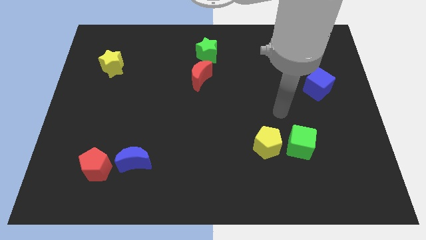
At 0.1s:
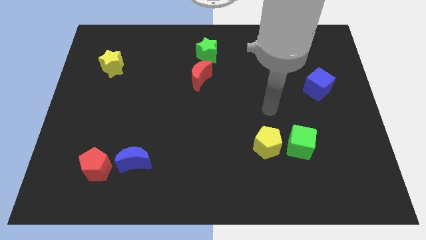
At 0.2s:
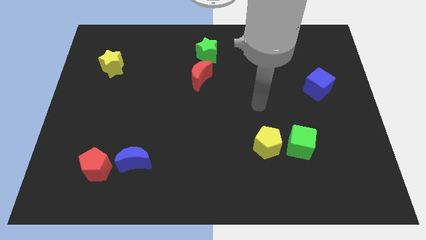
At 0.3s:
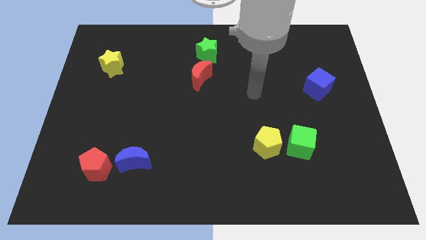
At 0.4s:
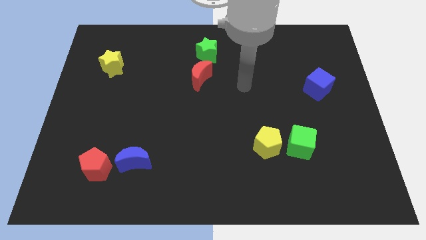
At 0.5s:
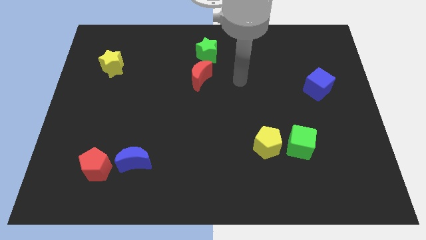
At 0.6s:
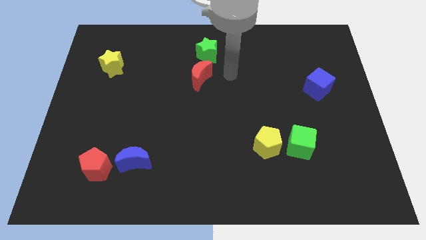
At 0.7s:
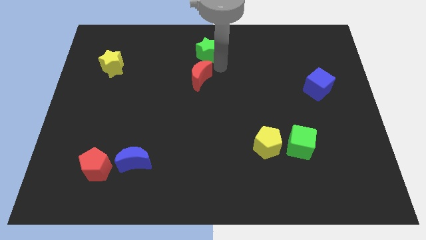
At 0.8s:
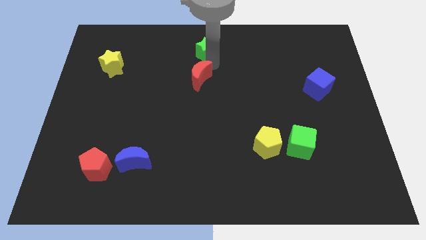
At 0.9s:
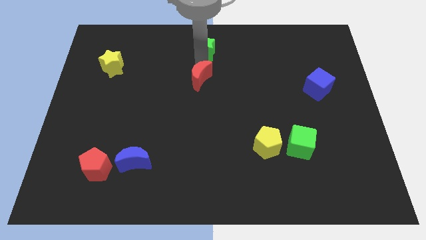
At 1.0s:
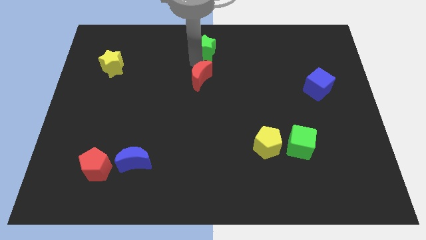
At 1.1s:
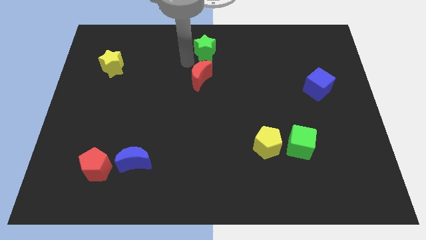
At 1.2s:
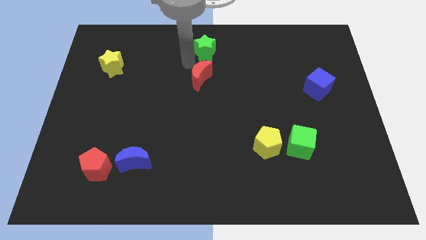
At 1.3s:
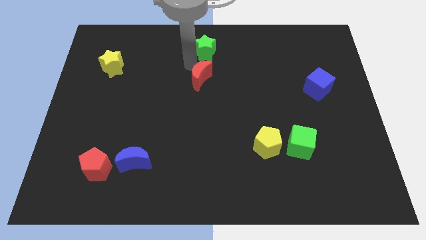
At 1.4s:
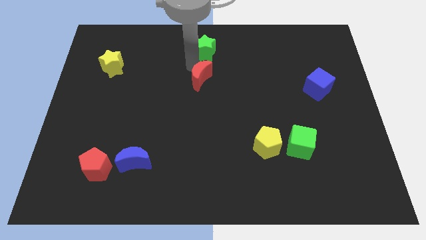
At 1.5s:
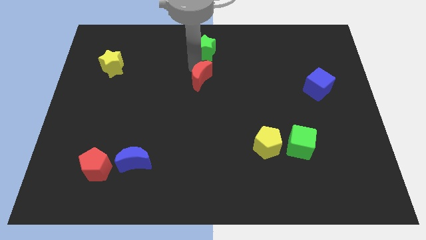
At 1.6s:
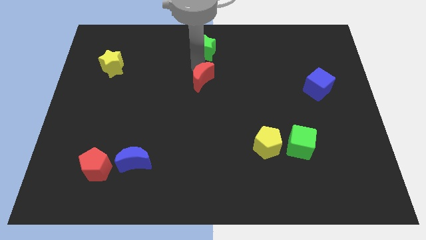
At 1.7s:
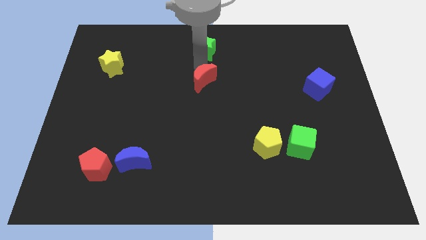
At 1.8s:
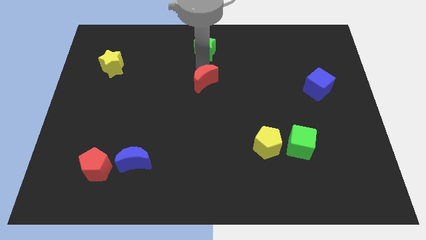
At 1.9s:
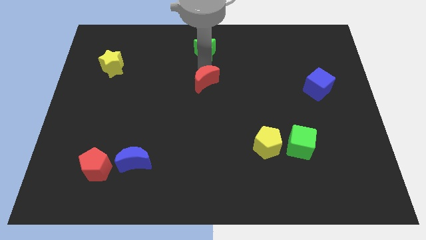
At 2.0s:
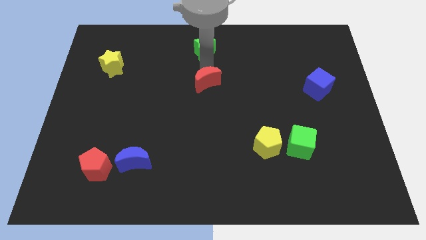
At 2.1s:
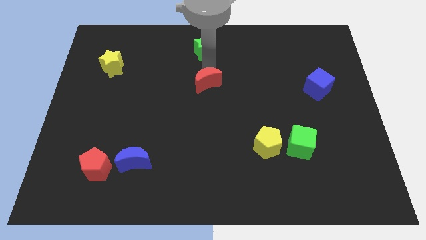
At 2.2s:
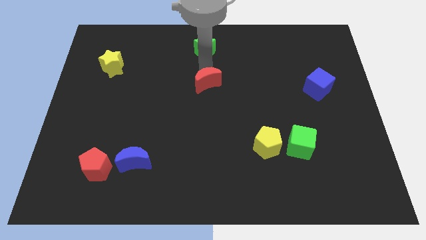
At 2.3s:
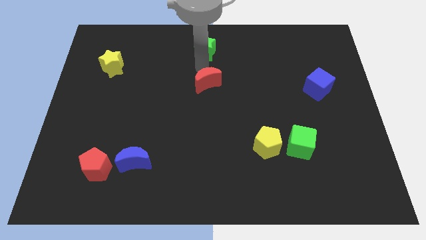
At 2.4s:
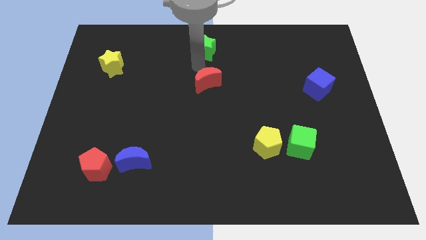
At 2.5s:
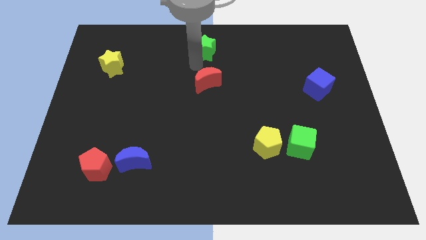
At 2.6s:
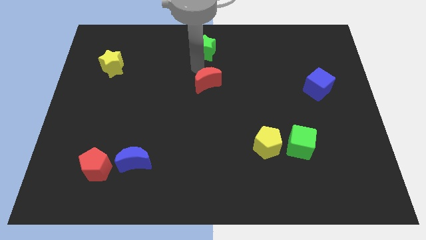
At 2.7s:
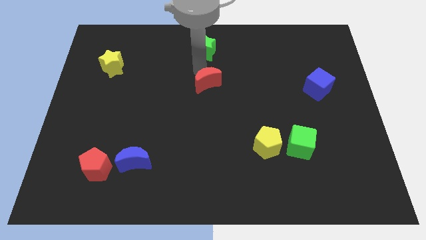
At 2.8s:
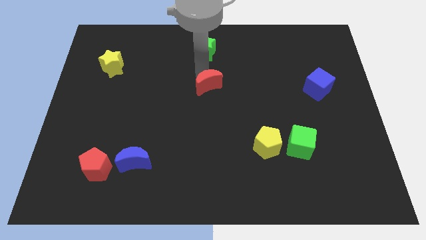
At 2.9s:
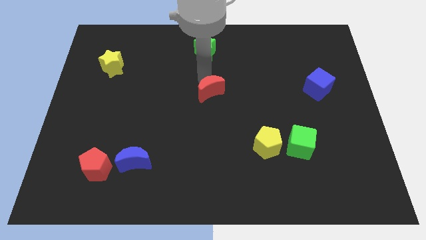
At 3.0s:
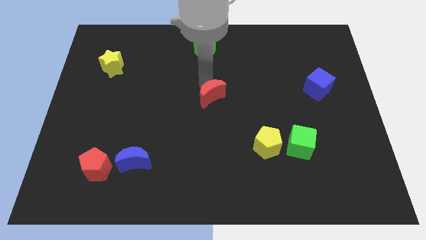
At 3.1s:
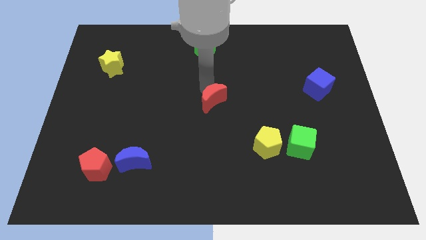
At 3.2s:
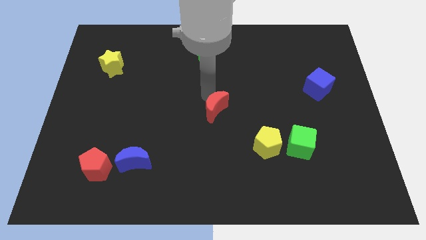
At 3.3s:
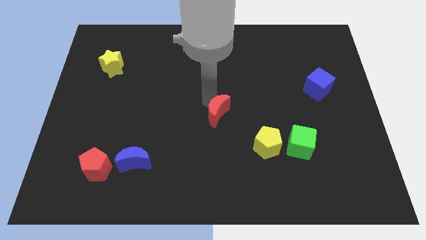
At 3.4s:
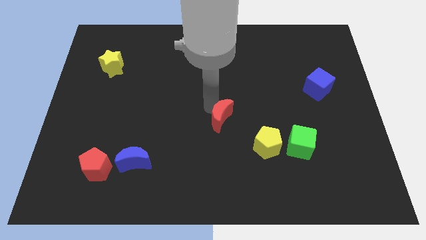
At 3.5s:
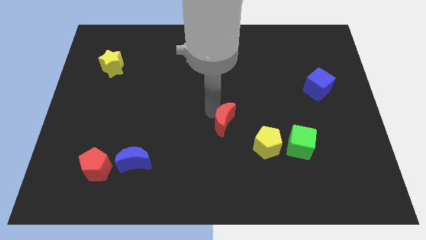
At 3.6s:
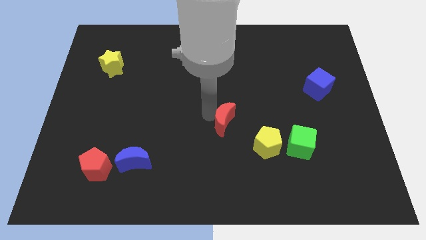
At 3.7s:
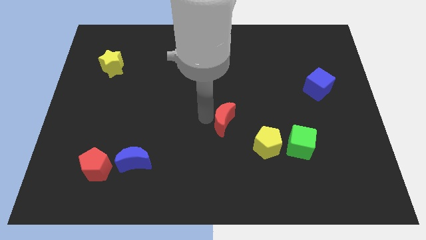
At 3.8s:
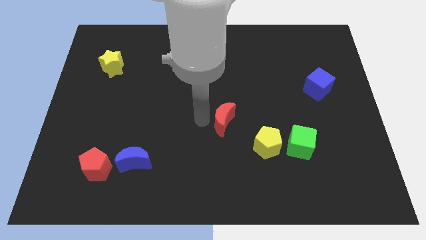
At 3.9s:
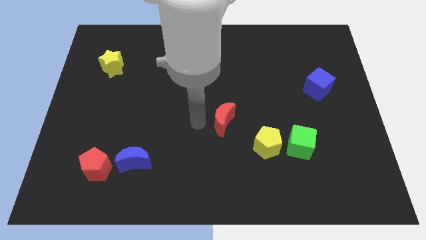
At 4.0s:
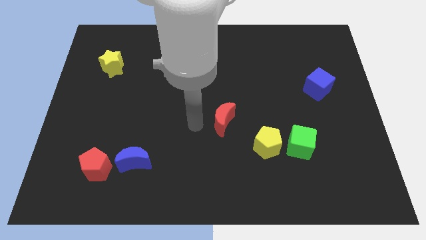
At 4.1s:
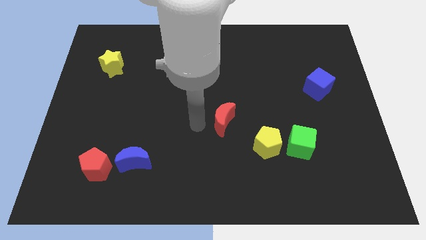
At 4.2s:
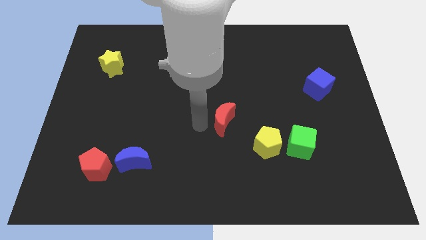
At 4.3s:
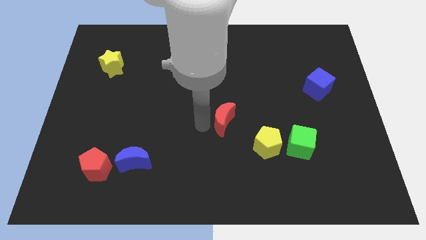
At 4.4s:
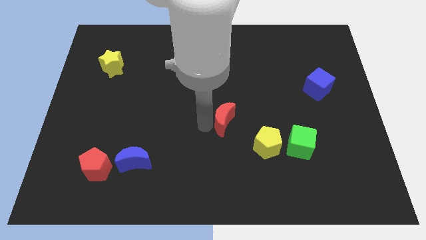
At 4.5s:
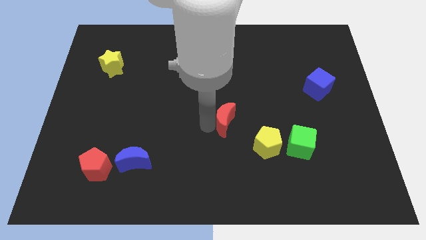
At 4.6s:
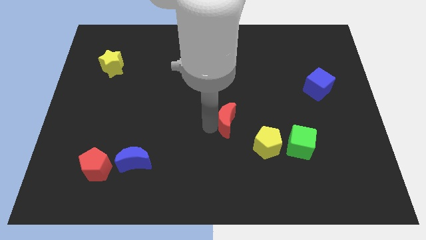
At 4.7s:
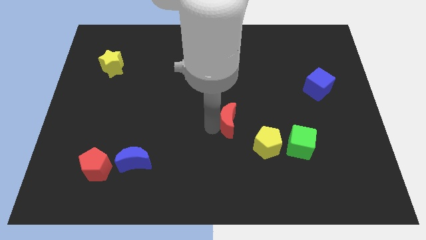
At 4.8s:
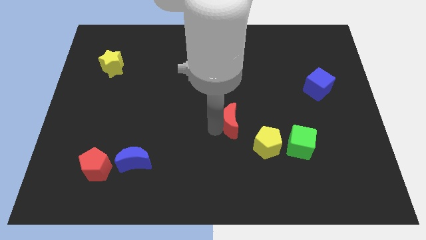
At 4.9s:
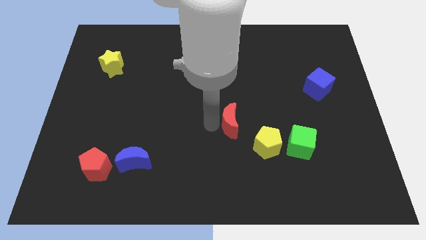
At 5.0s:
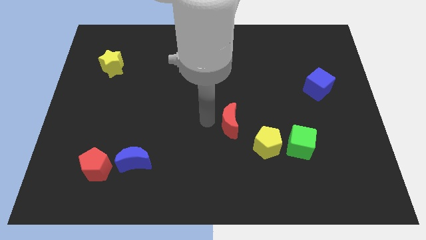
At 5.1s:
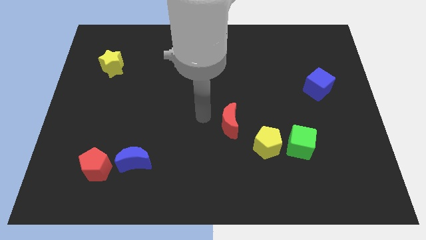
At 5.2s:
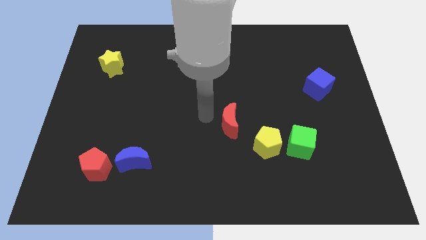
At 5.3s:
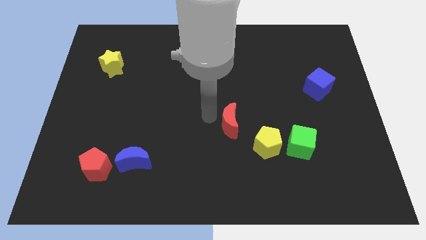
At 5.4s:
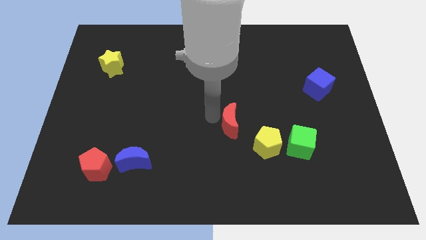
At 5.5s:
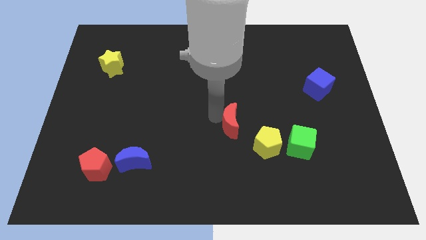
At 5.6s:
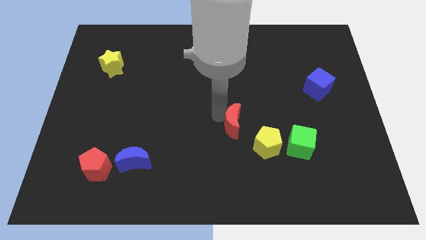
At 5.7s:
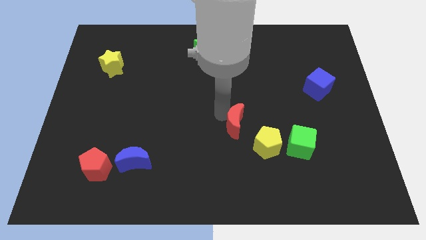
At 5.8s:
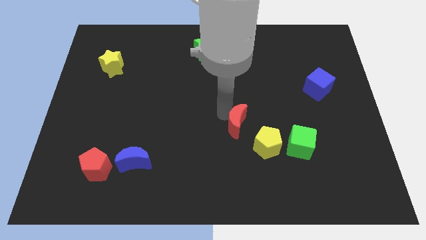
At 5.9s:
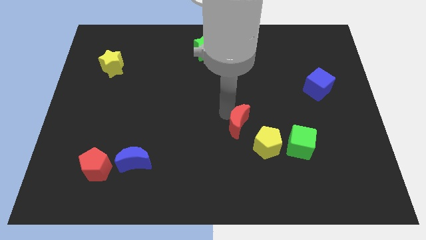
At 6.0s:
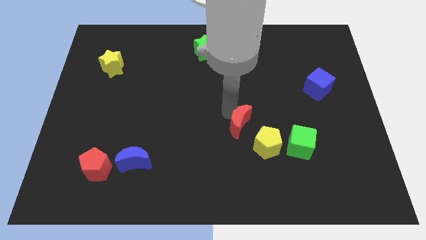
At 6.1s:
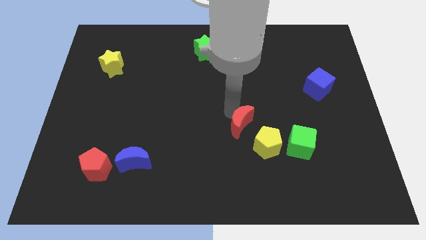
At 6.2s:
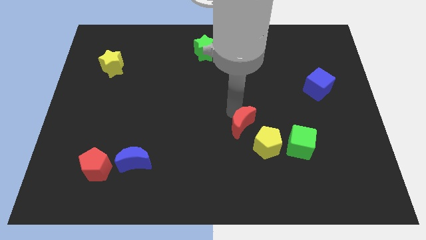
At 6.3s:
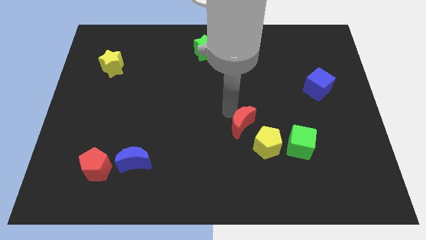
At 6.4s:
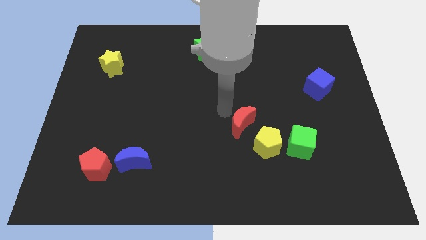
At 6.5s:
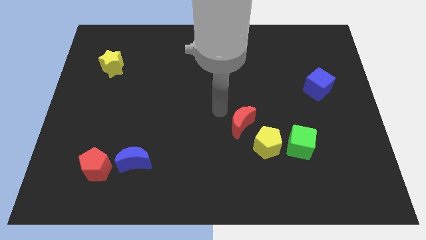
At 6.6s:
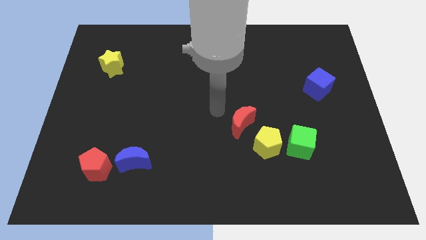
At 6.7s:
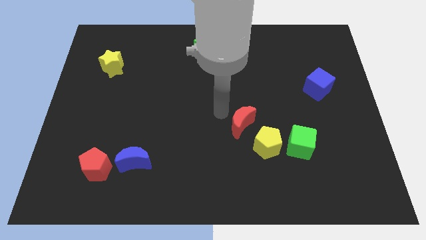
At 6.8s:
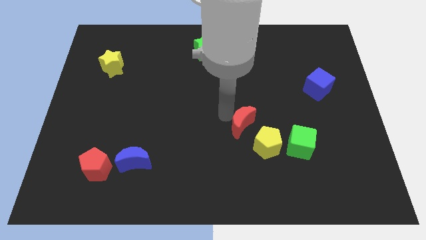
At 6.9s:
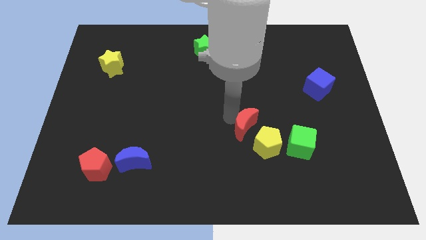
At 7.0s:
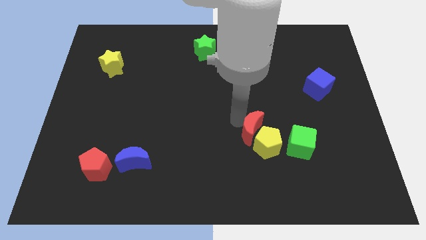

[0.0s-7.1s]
slide the red moon next to the yellow pentagon
